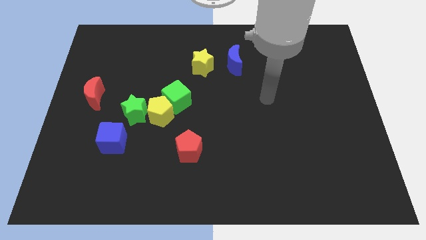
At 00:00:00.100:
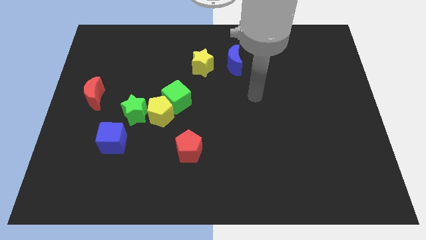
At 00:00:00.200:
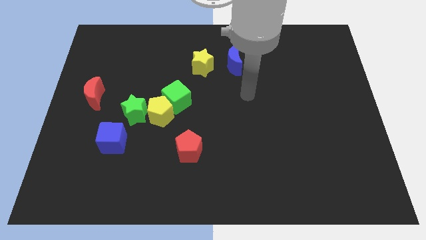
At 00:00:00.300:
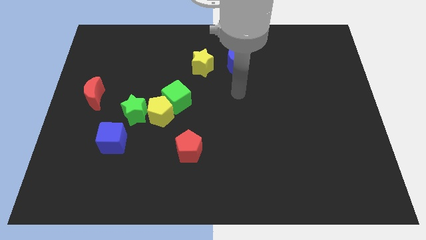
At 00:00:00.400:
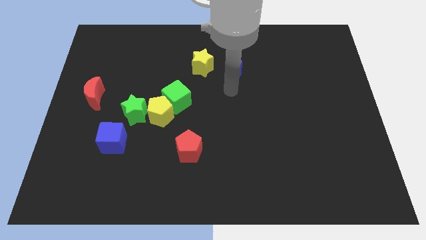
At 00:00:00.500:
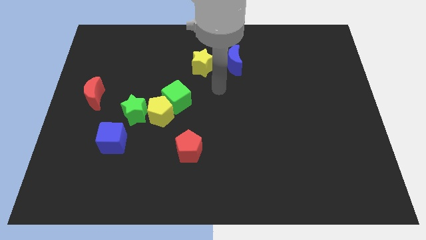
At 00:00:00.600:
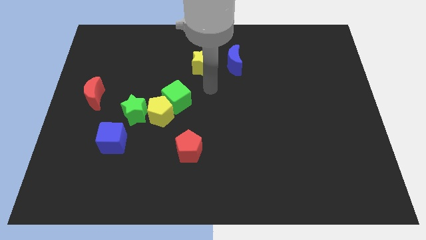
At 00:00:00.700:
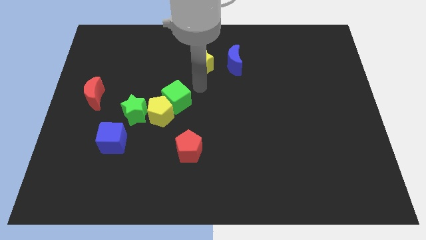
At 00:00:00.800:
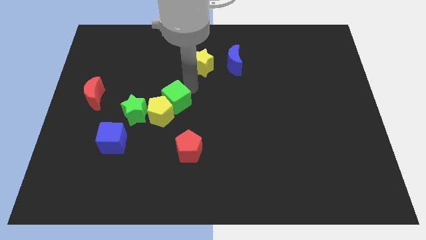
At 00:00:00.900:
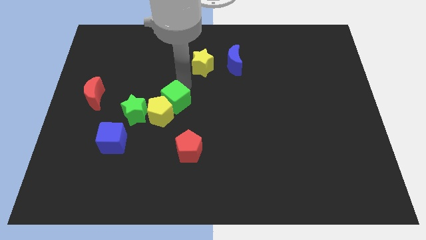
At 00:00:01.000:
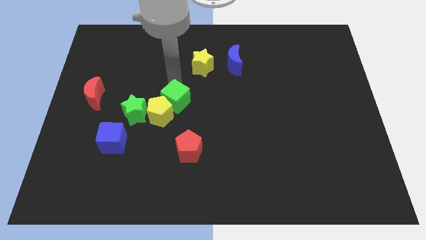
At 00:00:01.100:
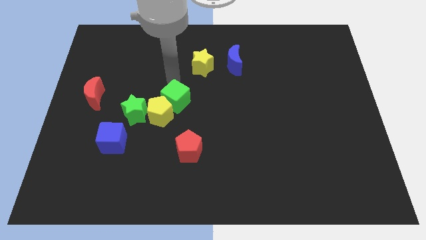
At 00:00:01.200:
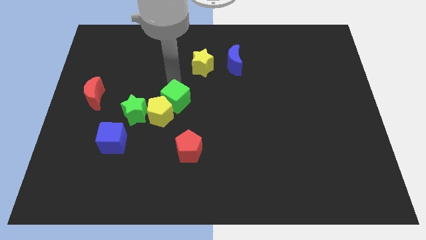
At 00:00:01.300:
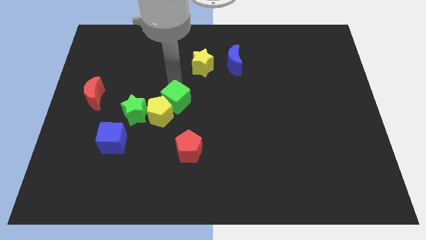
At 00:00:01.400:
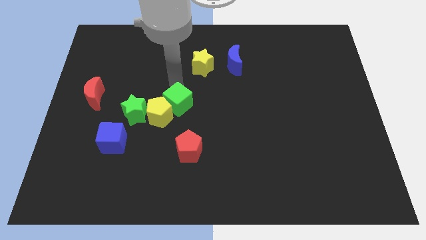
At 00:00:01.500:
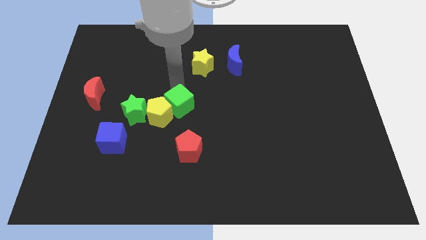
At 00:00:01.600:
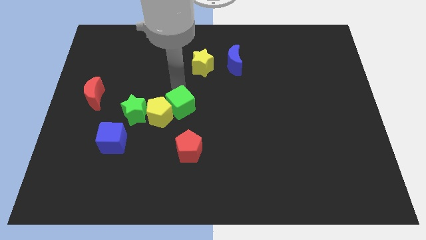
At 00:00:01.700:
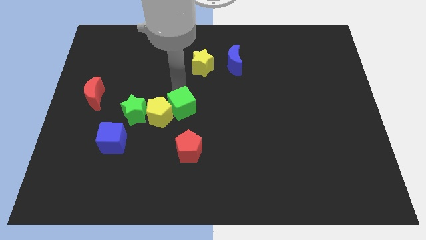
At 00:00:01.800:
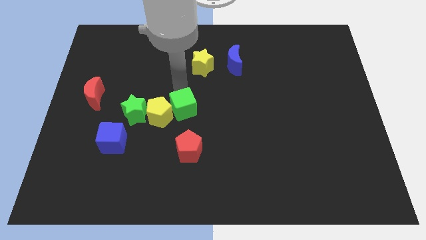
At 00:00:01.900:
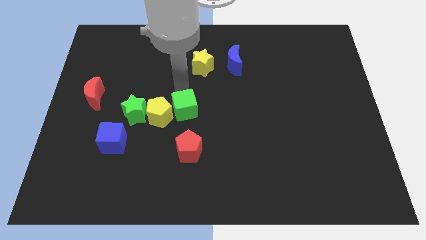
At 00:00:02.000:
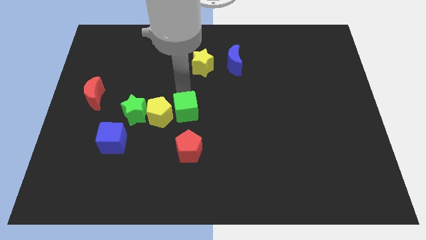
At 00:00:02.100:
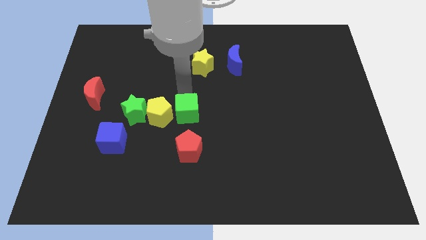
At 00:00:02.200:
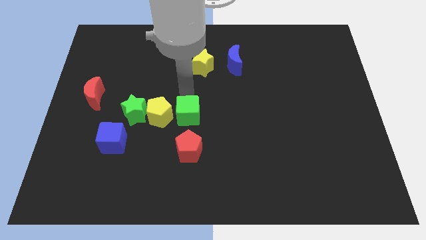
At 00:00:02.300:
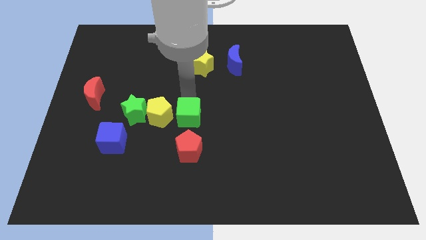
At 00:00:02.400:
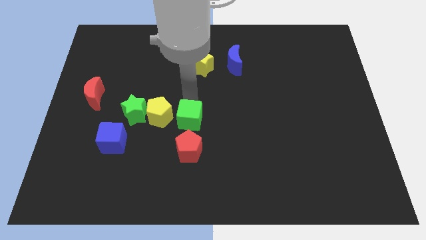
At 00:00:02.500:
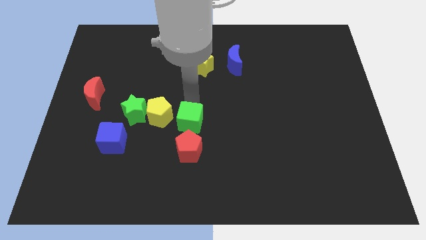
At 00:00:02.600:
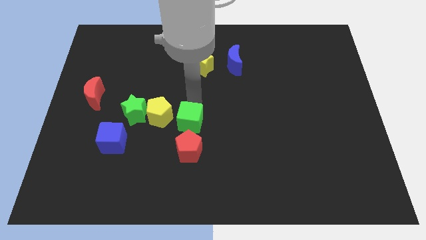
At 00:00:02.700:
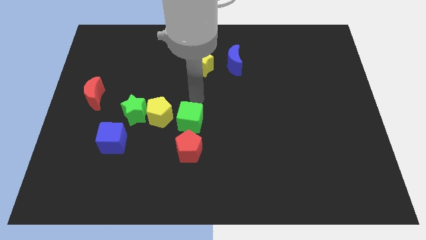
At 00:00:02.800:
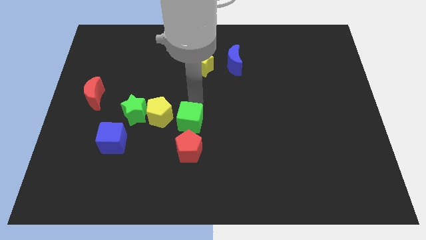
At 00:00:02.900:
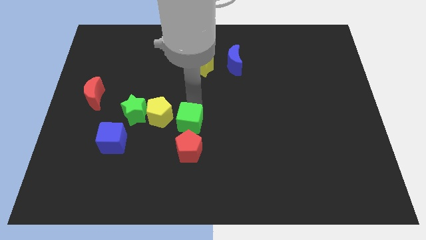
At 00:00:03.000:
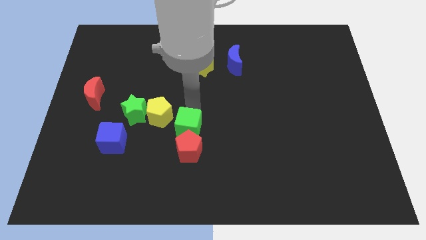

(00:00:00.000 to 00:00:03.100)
move the green cube to the red pentagon

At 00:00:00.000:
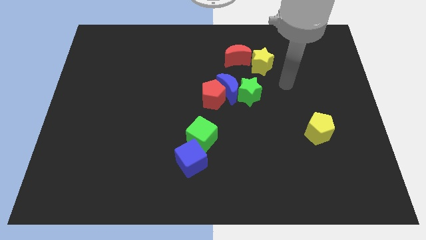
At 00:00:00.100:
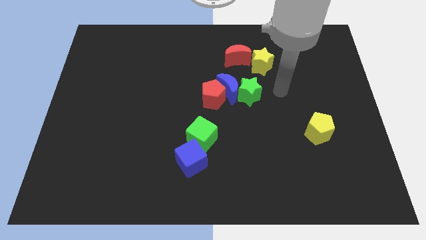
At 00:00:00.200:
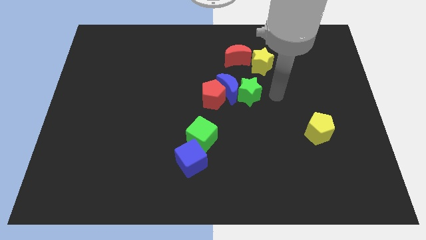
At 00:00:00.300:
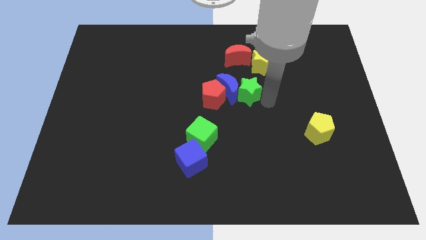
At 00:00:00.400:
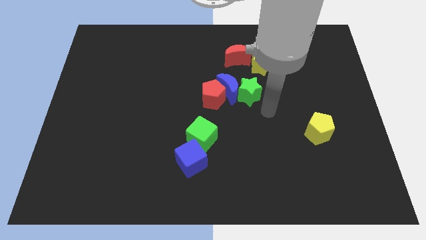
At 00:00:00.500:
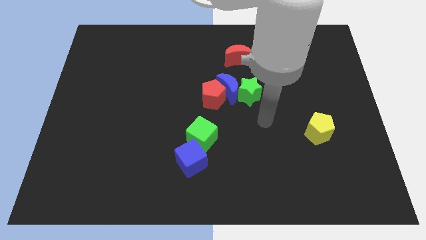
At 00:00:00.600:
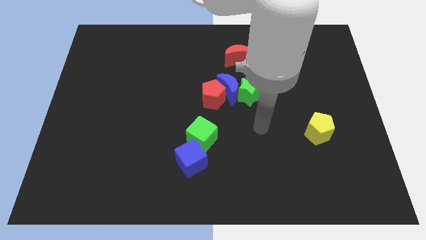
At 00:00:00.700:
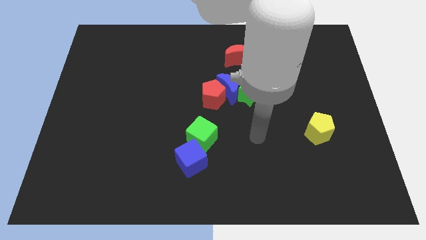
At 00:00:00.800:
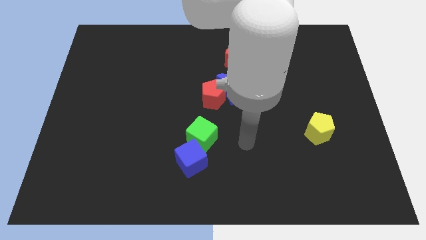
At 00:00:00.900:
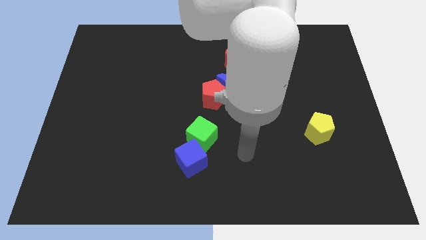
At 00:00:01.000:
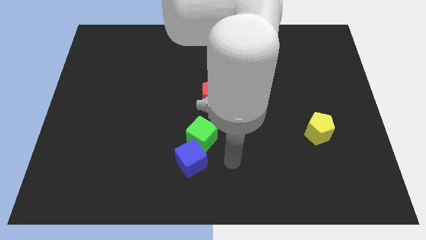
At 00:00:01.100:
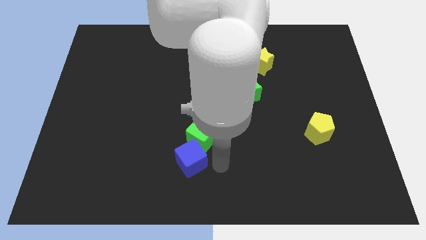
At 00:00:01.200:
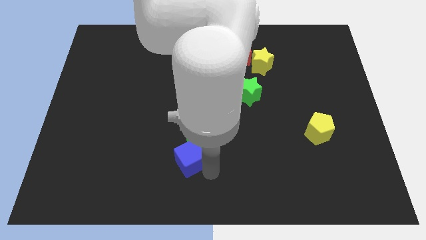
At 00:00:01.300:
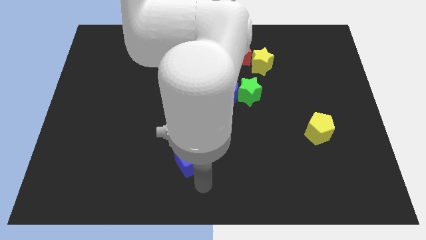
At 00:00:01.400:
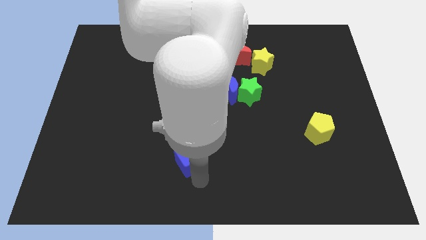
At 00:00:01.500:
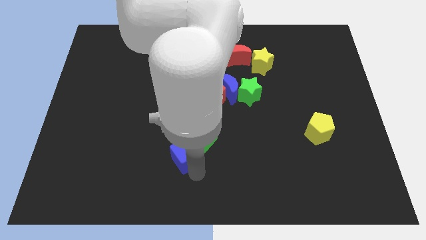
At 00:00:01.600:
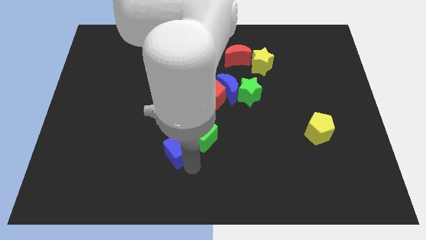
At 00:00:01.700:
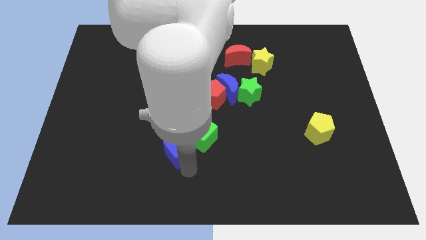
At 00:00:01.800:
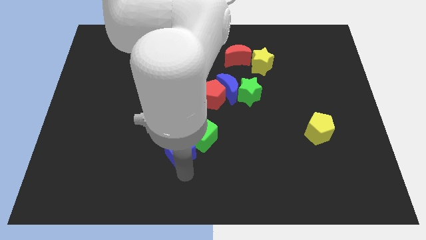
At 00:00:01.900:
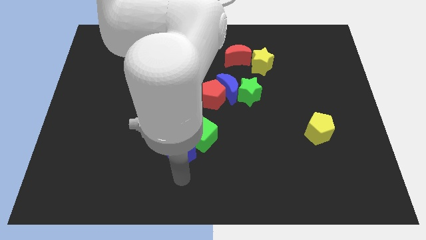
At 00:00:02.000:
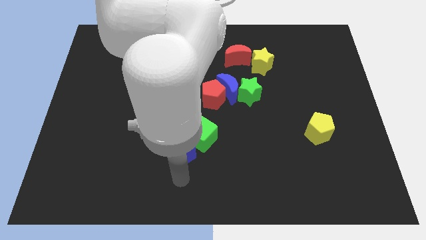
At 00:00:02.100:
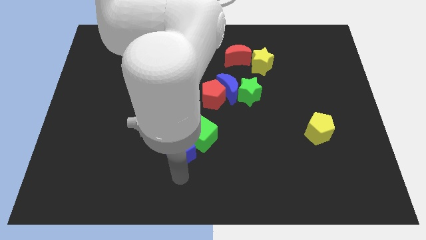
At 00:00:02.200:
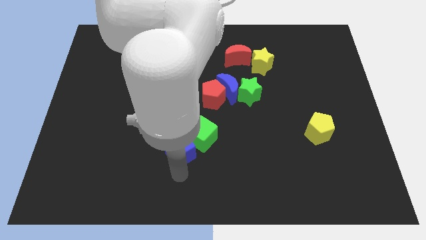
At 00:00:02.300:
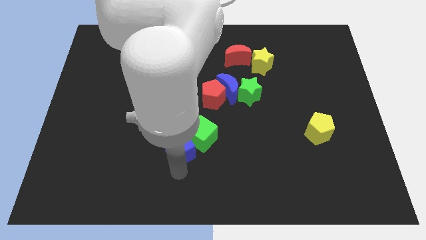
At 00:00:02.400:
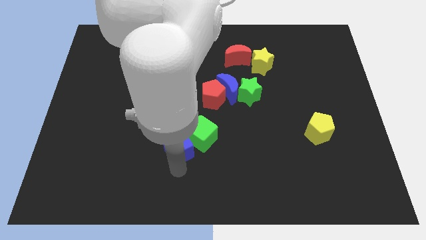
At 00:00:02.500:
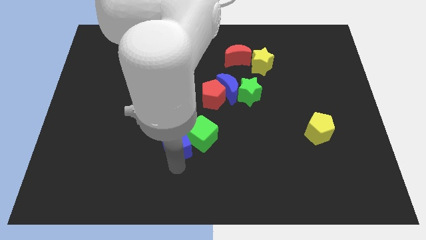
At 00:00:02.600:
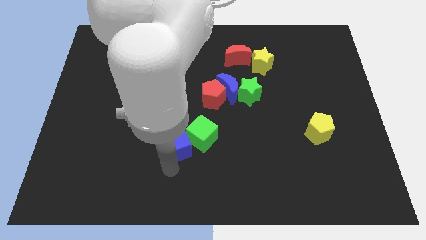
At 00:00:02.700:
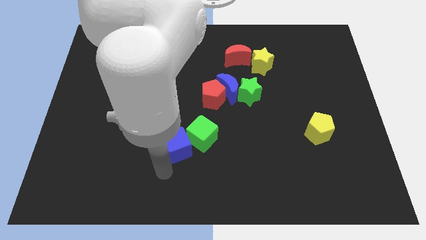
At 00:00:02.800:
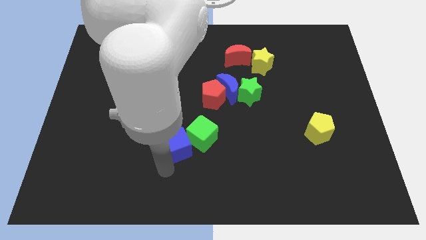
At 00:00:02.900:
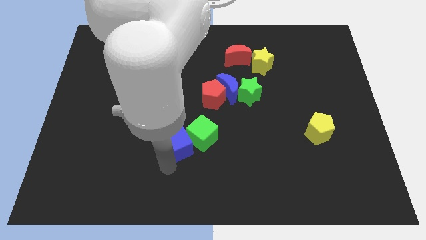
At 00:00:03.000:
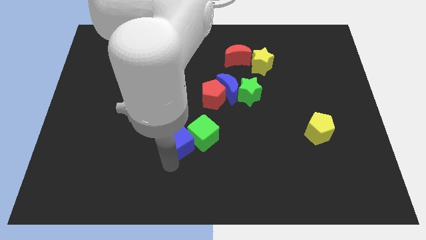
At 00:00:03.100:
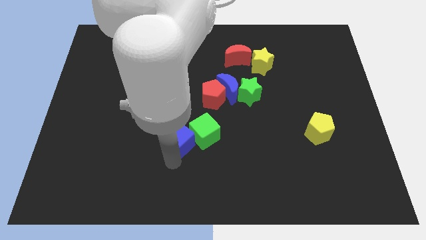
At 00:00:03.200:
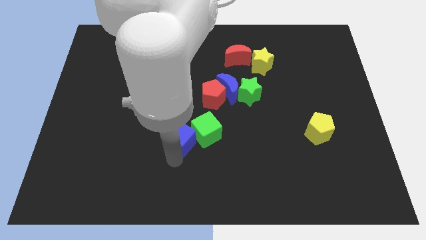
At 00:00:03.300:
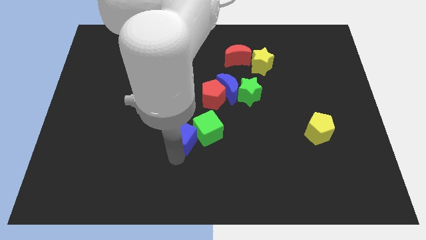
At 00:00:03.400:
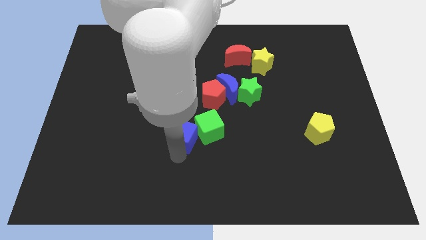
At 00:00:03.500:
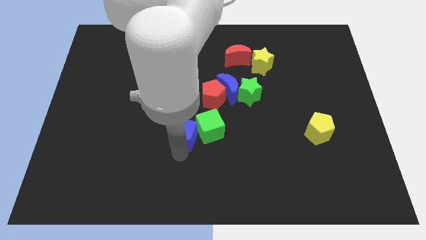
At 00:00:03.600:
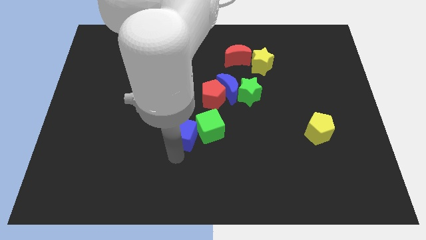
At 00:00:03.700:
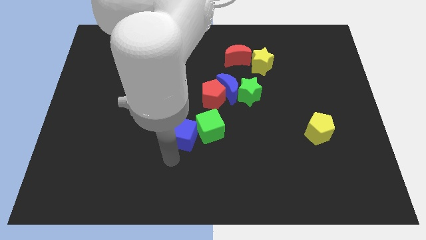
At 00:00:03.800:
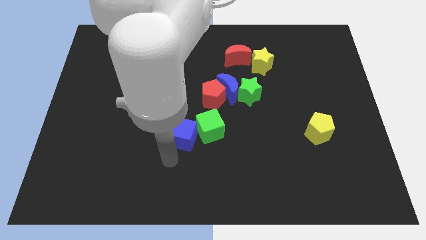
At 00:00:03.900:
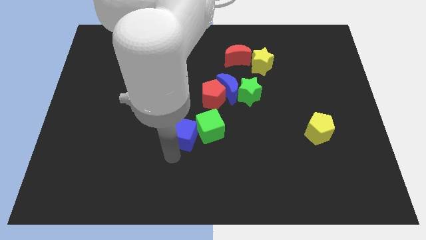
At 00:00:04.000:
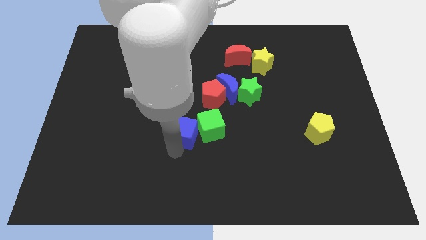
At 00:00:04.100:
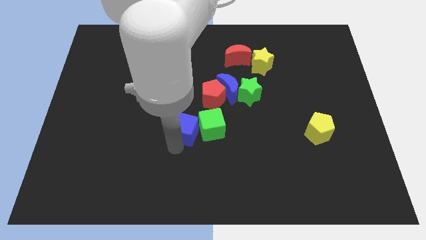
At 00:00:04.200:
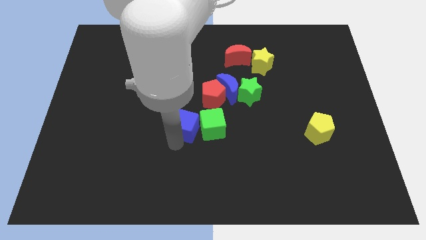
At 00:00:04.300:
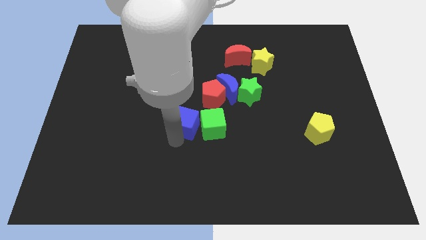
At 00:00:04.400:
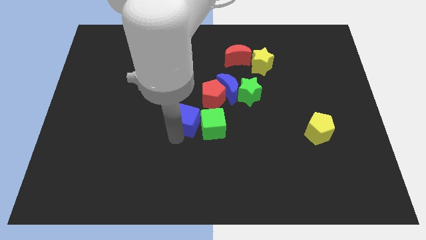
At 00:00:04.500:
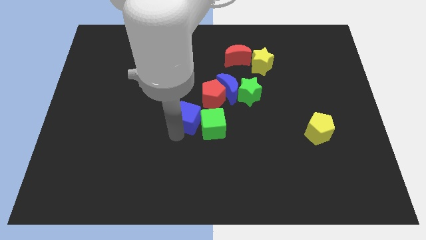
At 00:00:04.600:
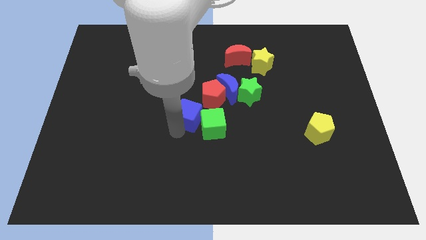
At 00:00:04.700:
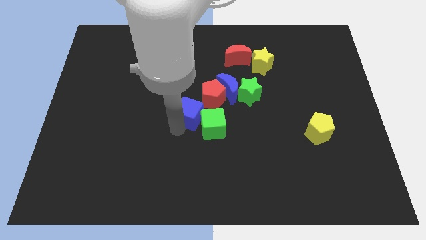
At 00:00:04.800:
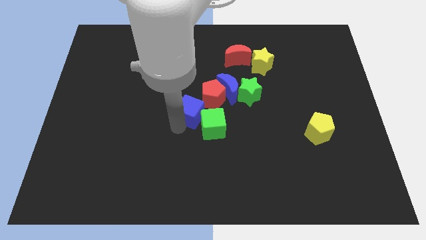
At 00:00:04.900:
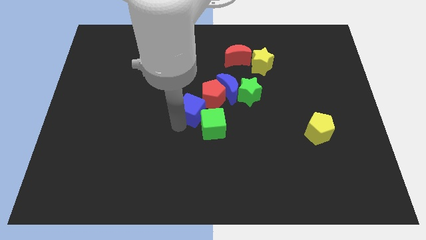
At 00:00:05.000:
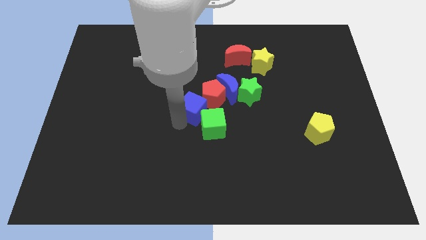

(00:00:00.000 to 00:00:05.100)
move the blue cube to the red pentagon
